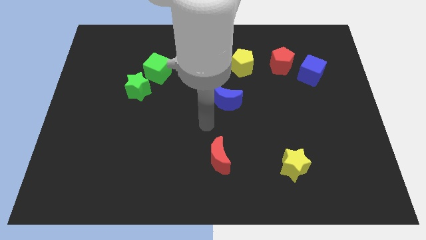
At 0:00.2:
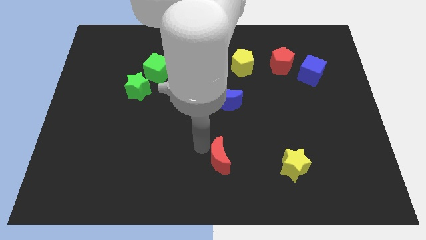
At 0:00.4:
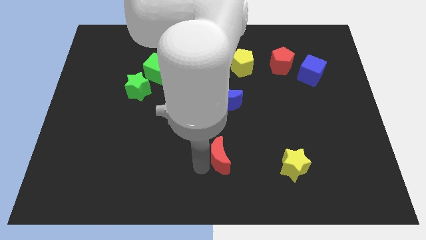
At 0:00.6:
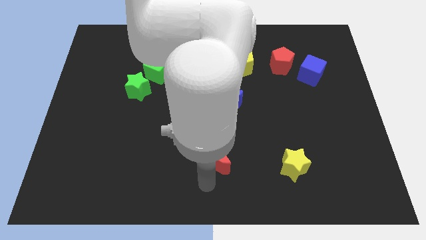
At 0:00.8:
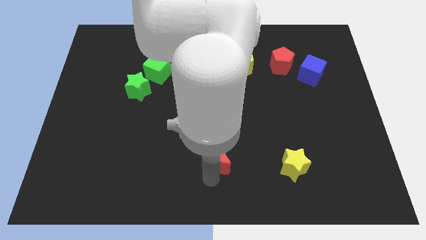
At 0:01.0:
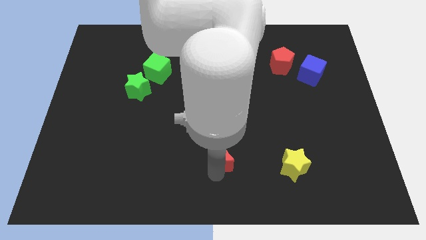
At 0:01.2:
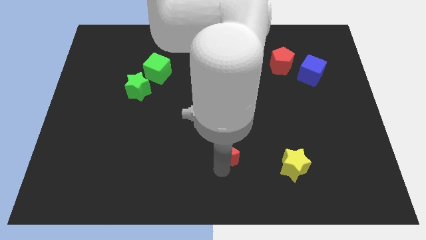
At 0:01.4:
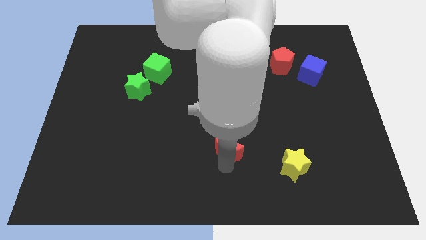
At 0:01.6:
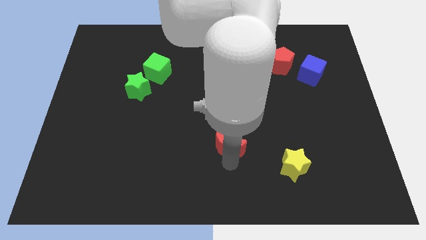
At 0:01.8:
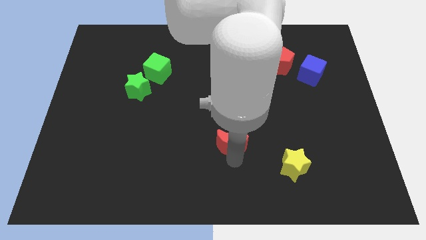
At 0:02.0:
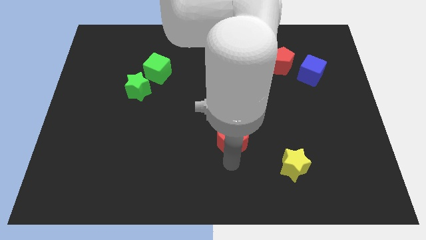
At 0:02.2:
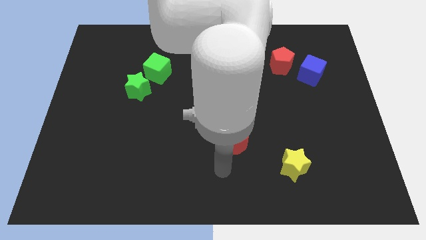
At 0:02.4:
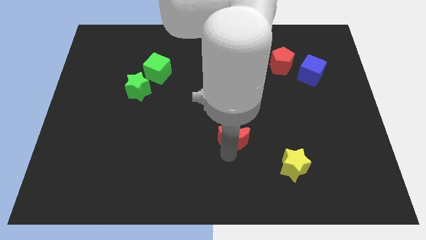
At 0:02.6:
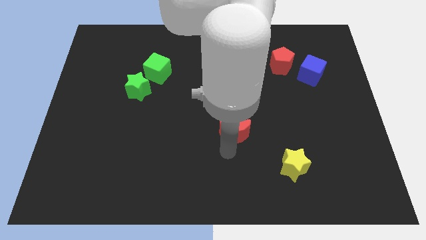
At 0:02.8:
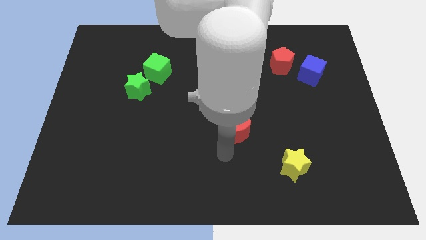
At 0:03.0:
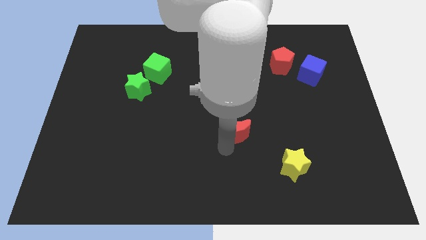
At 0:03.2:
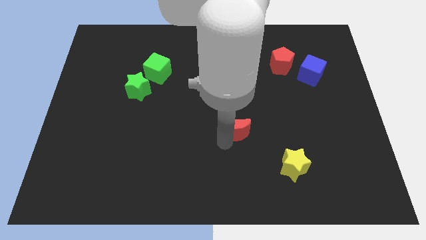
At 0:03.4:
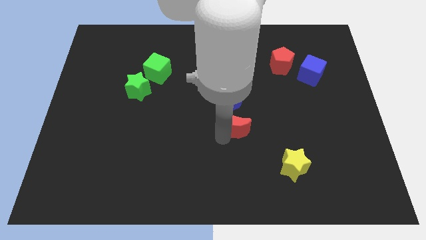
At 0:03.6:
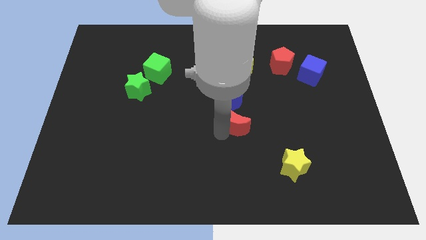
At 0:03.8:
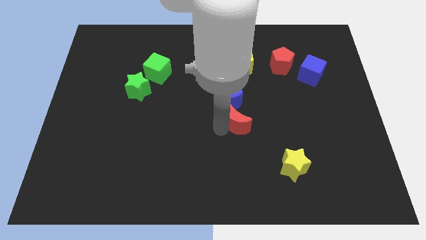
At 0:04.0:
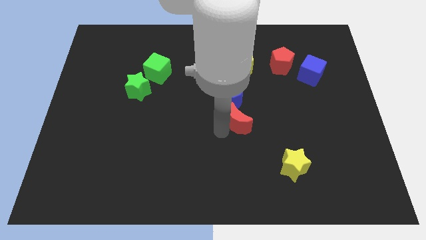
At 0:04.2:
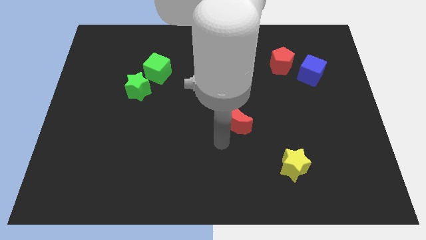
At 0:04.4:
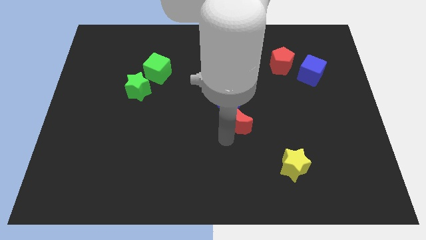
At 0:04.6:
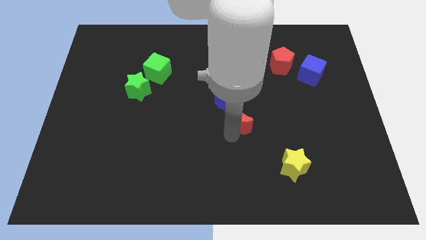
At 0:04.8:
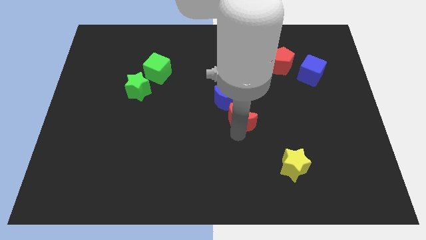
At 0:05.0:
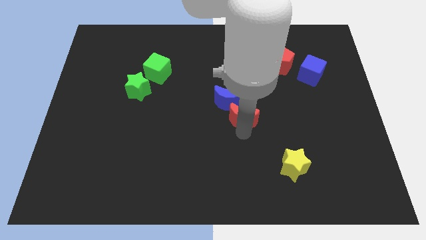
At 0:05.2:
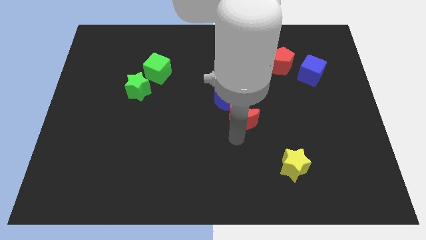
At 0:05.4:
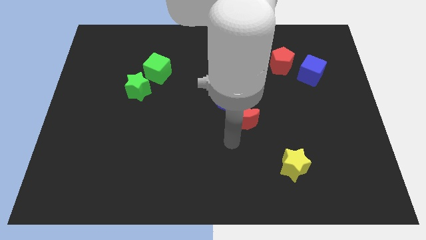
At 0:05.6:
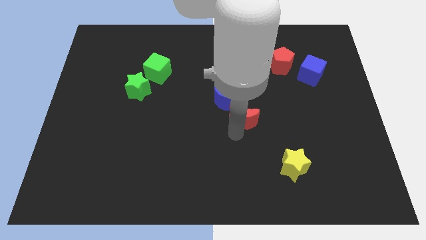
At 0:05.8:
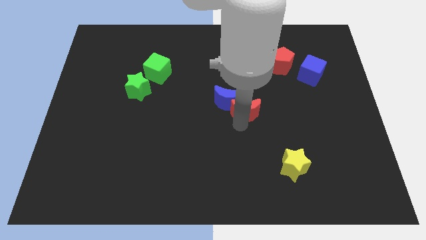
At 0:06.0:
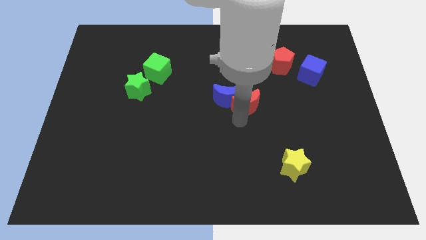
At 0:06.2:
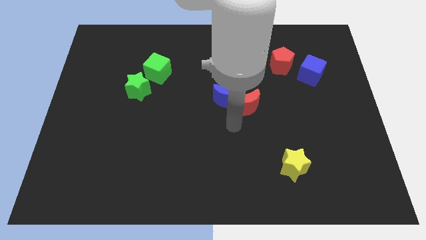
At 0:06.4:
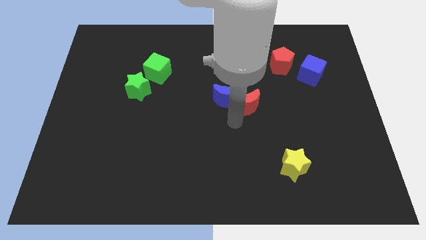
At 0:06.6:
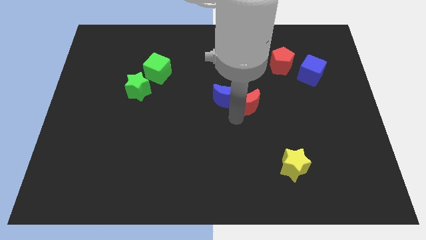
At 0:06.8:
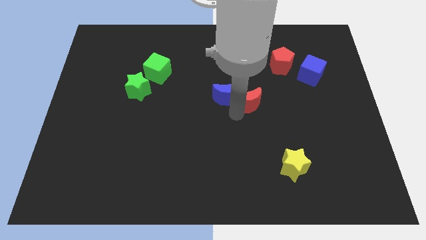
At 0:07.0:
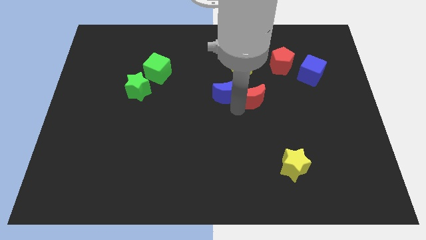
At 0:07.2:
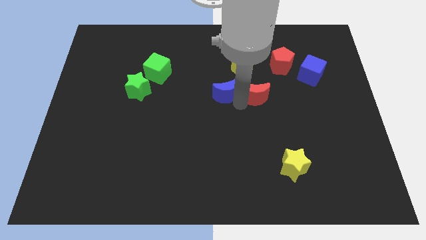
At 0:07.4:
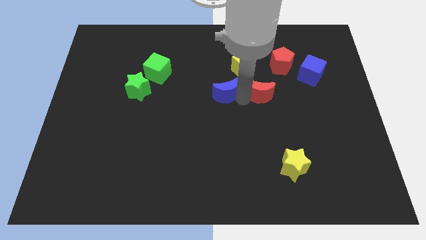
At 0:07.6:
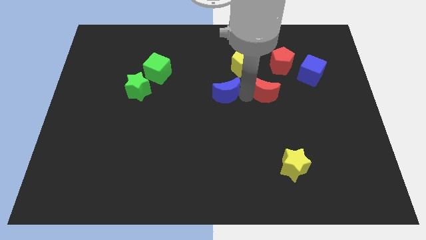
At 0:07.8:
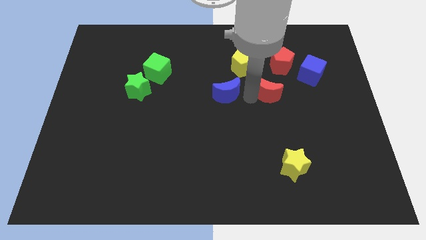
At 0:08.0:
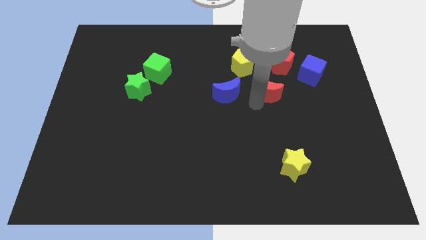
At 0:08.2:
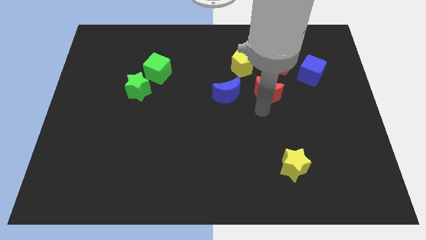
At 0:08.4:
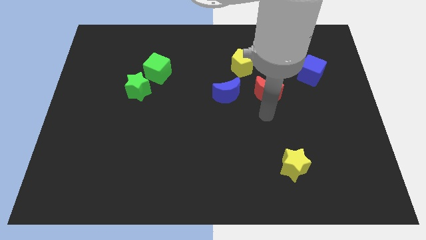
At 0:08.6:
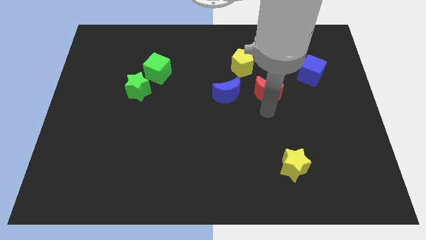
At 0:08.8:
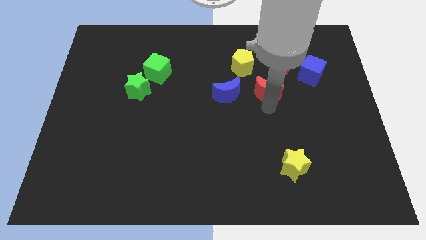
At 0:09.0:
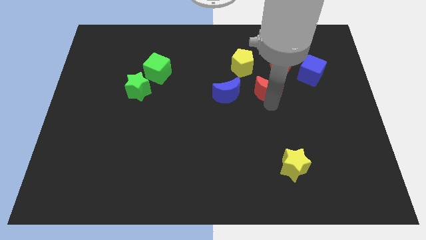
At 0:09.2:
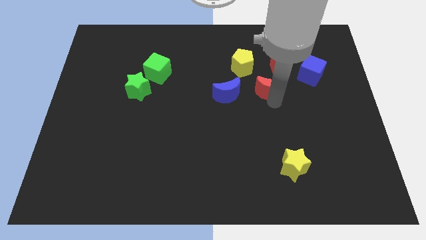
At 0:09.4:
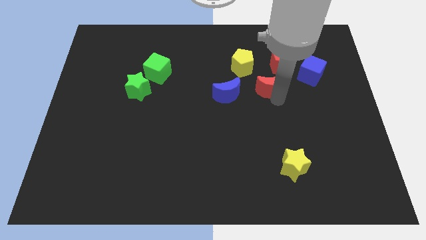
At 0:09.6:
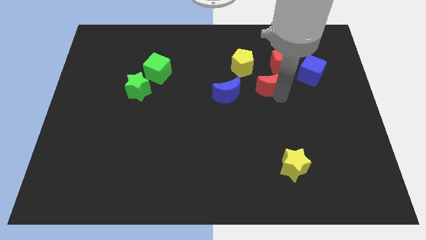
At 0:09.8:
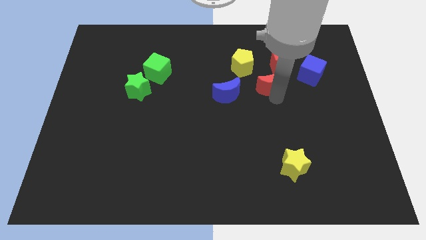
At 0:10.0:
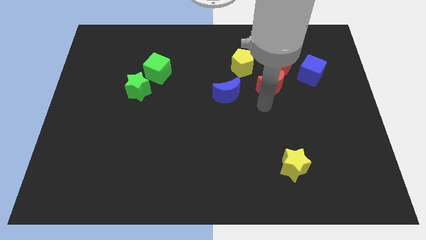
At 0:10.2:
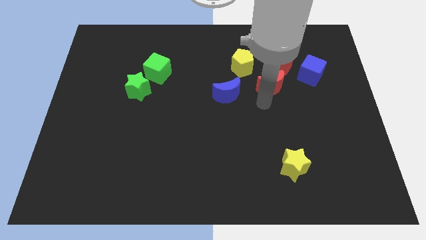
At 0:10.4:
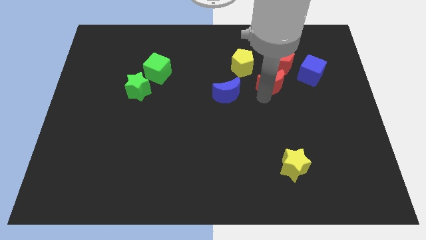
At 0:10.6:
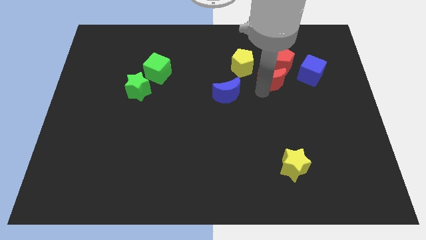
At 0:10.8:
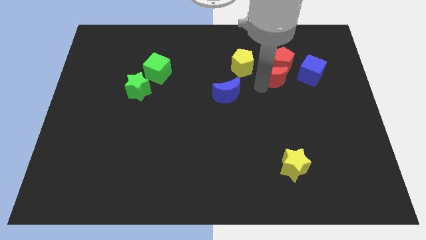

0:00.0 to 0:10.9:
slide the red moon to the red pentagon

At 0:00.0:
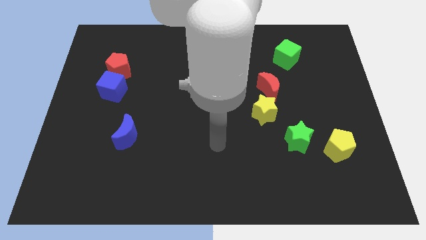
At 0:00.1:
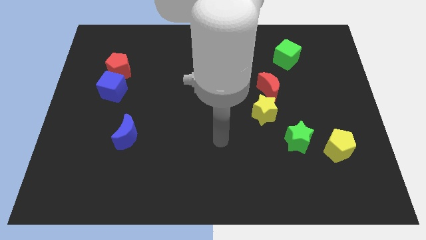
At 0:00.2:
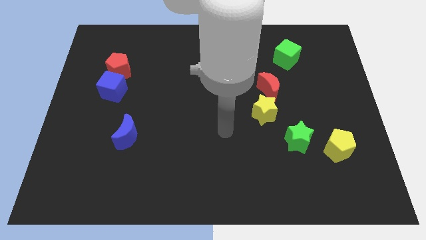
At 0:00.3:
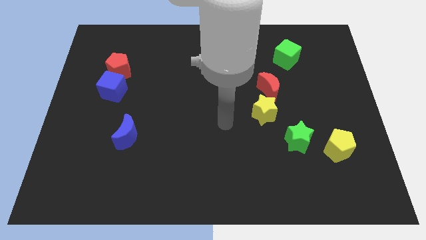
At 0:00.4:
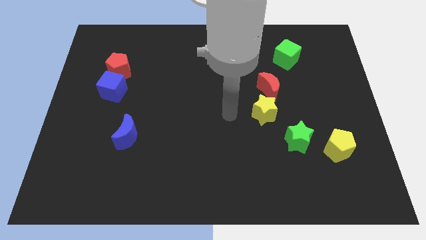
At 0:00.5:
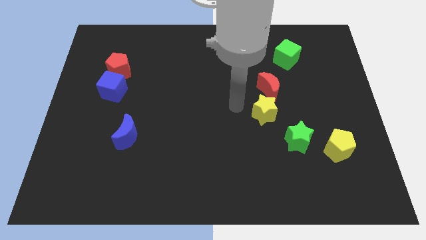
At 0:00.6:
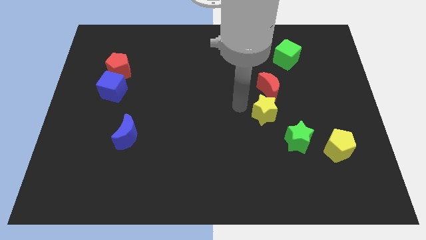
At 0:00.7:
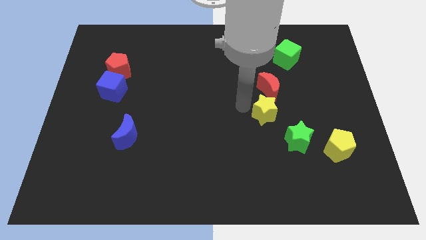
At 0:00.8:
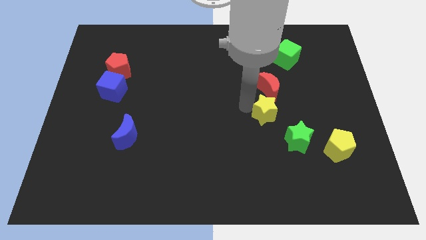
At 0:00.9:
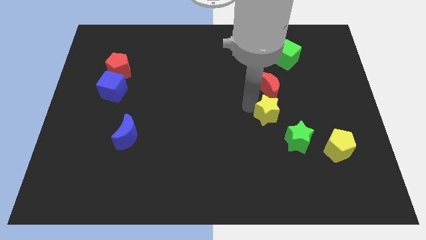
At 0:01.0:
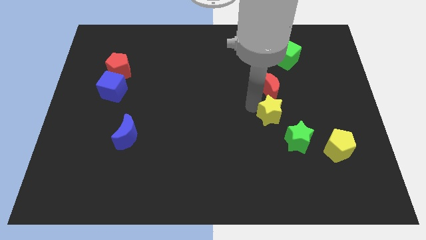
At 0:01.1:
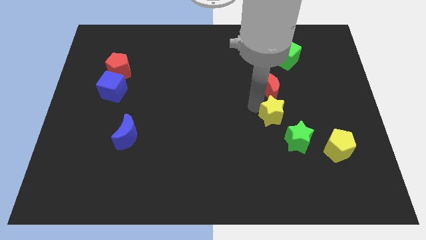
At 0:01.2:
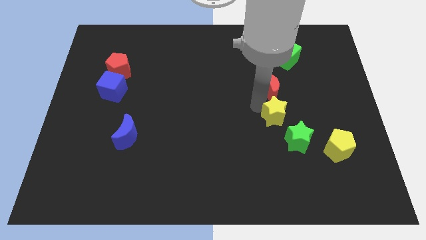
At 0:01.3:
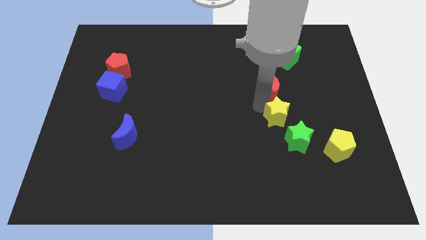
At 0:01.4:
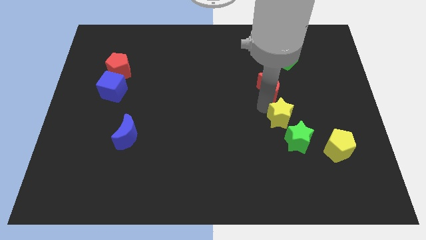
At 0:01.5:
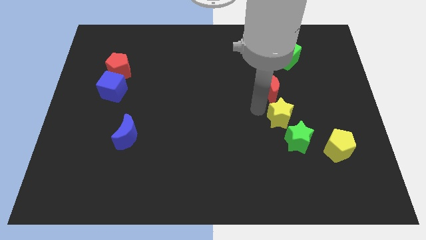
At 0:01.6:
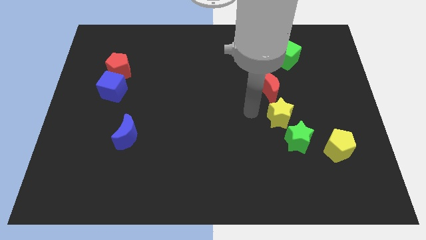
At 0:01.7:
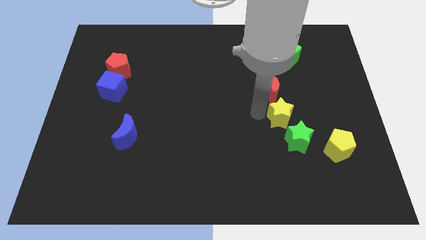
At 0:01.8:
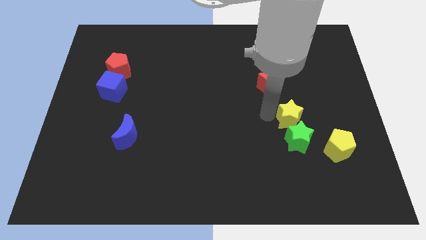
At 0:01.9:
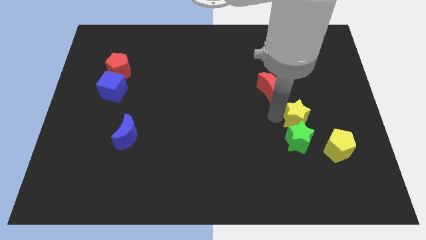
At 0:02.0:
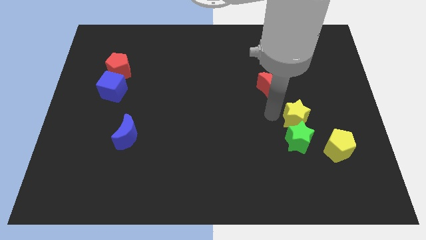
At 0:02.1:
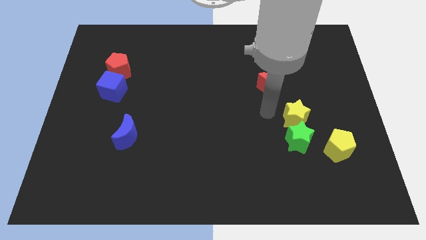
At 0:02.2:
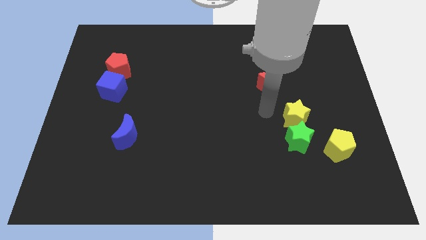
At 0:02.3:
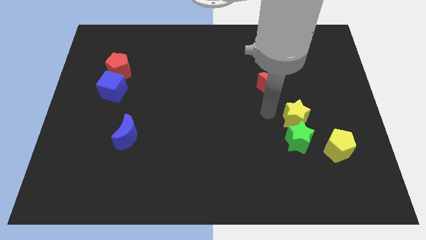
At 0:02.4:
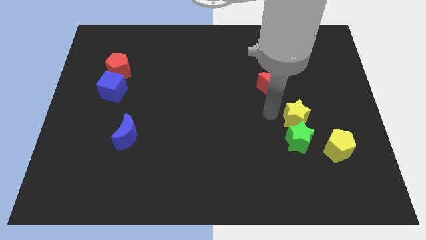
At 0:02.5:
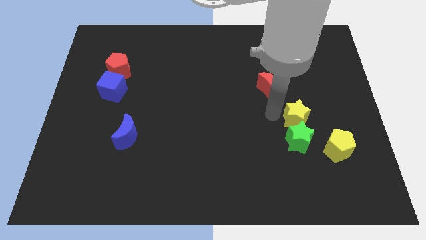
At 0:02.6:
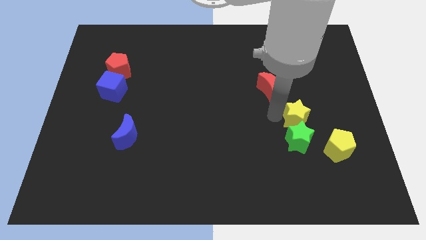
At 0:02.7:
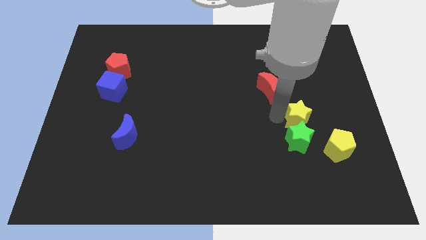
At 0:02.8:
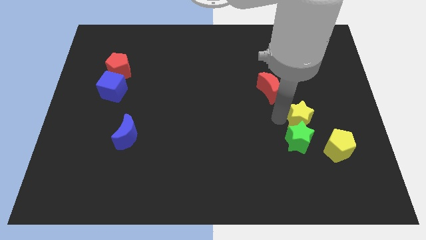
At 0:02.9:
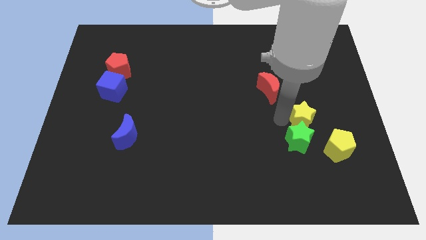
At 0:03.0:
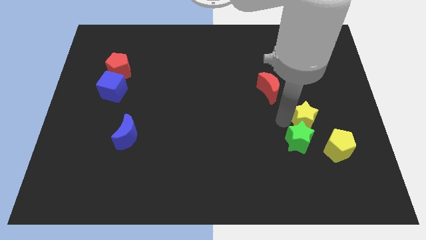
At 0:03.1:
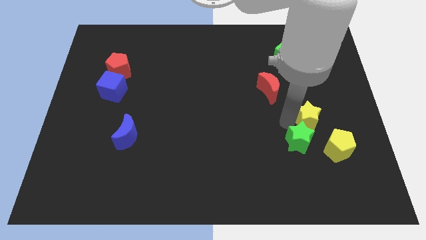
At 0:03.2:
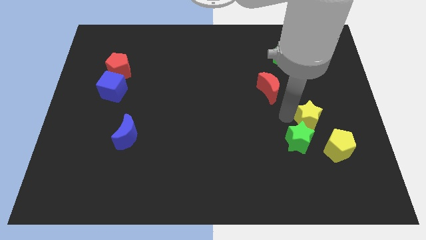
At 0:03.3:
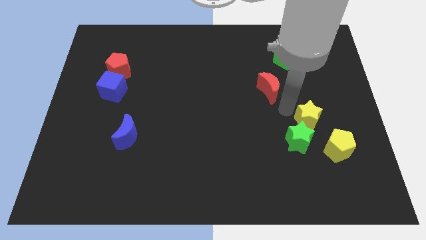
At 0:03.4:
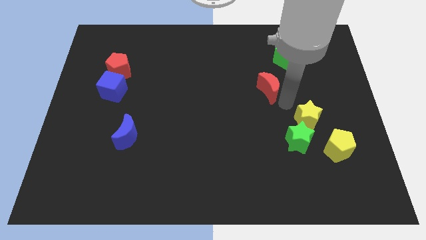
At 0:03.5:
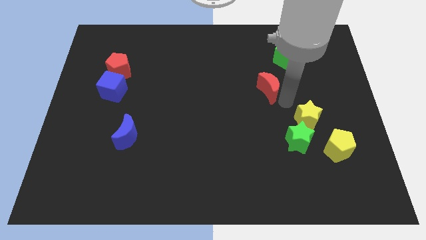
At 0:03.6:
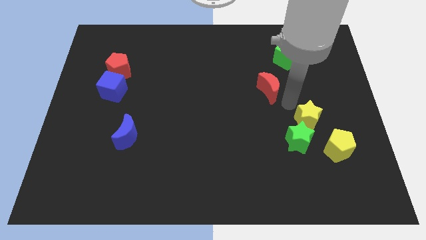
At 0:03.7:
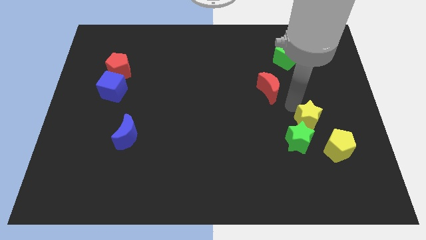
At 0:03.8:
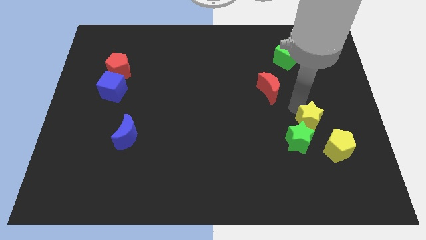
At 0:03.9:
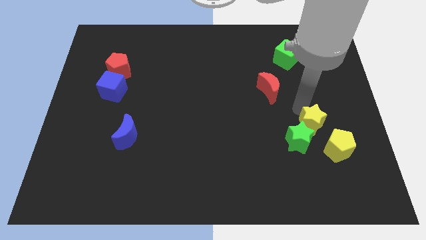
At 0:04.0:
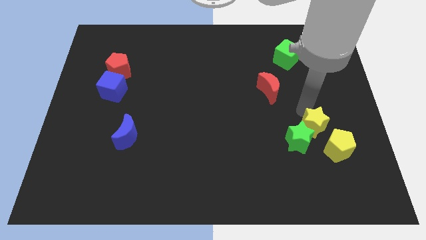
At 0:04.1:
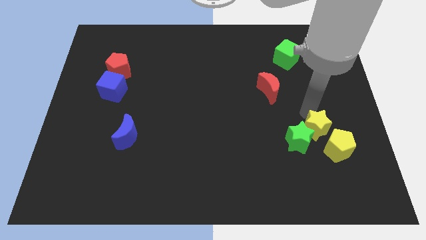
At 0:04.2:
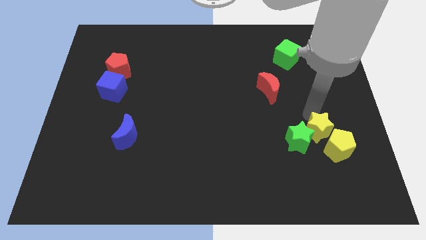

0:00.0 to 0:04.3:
push the yellow star to the yellow pentagon
